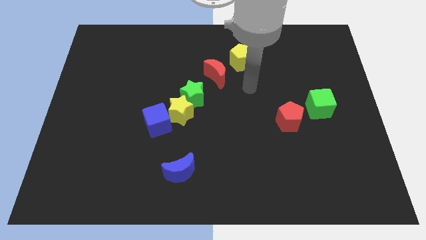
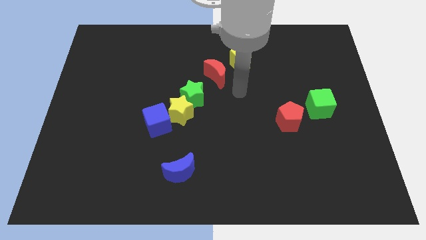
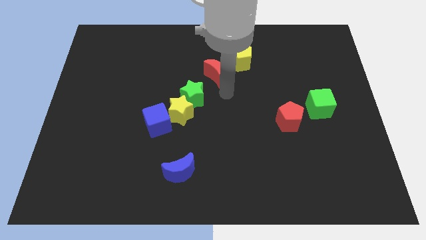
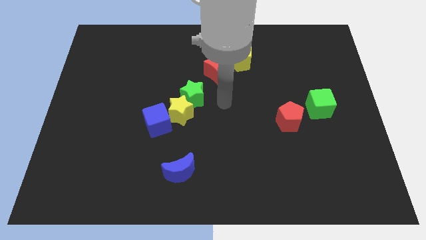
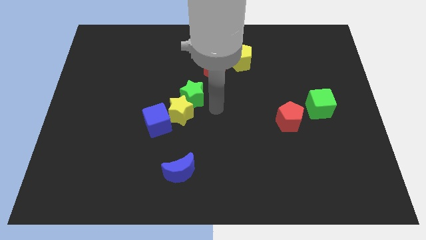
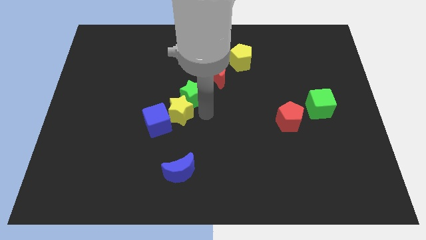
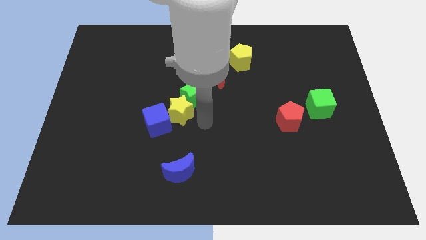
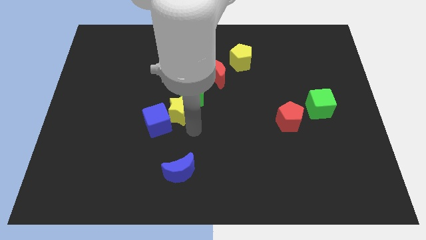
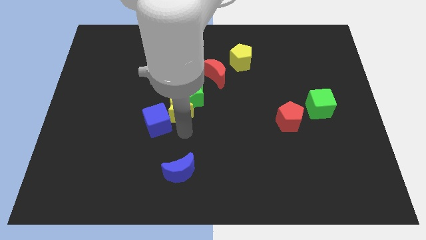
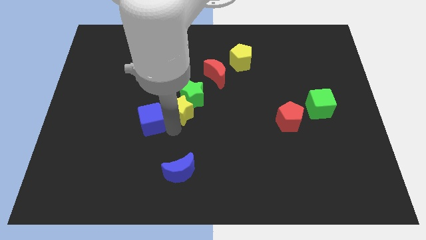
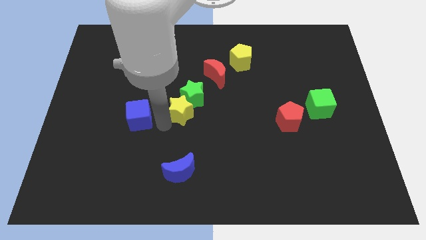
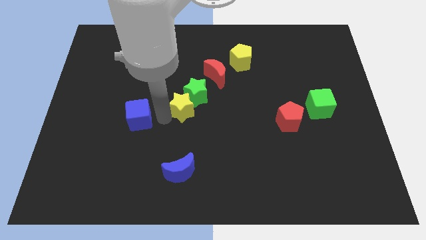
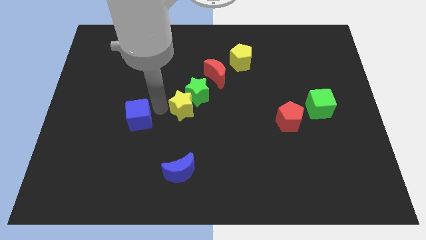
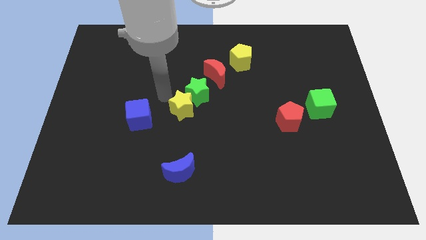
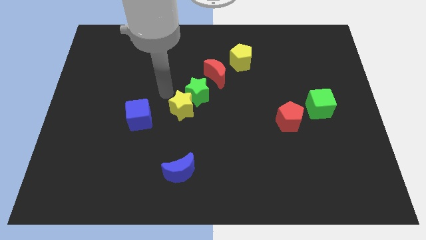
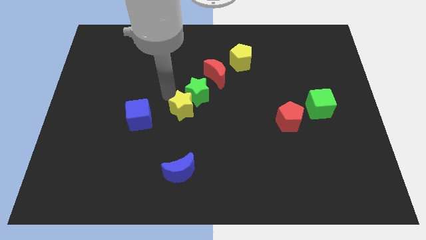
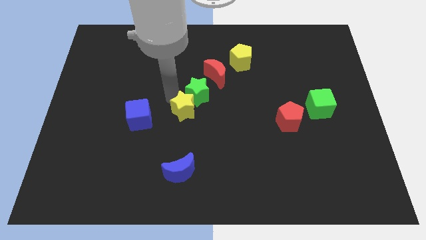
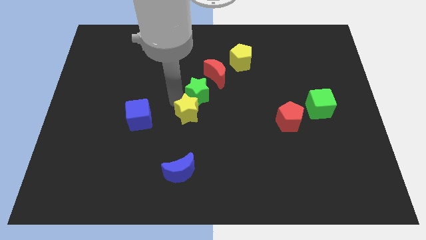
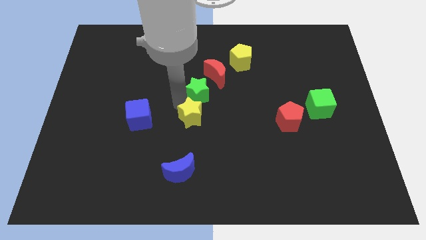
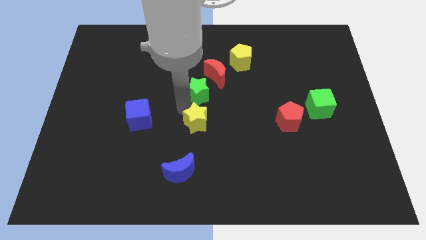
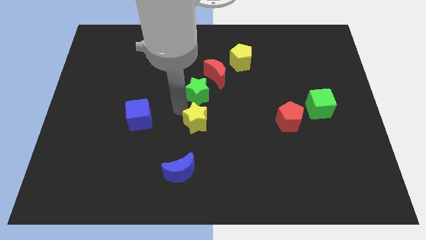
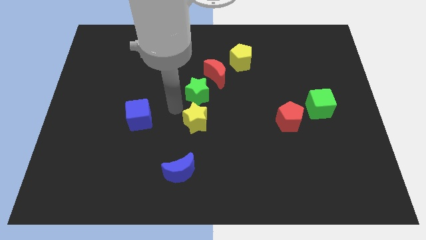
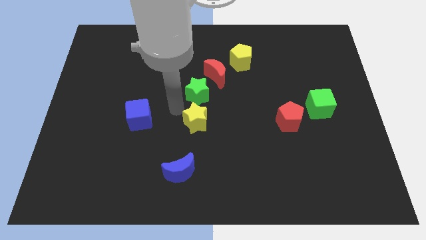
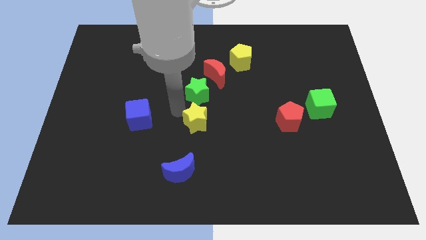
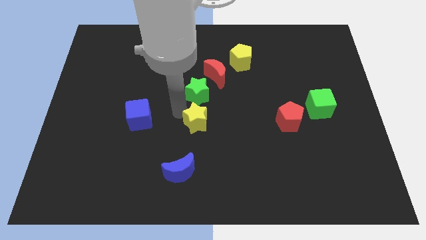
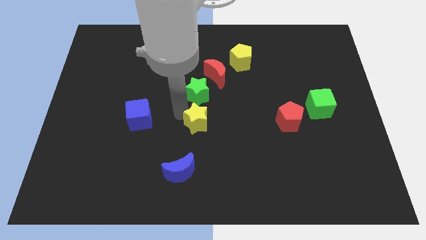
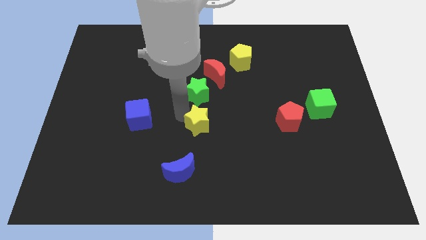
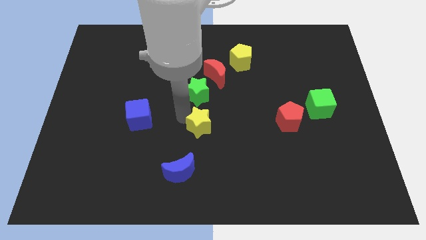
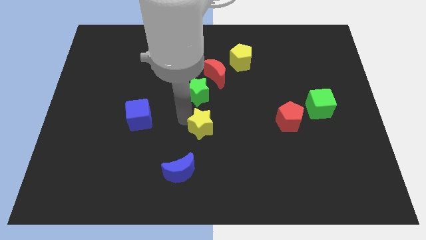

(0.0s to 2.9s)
move the yellow star away from the green star and blue cube

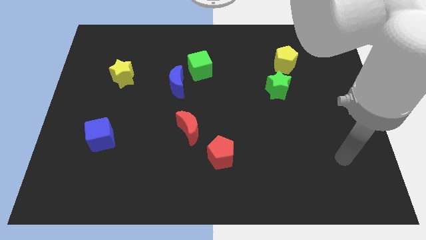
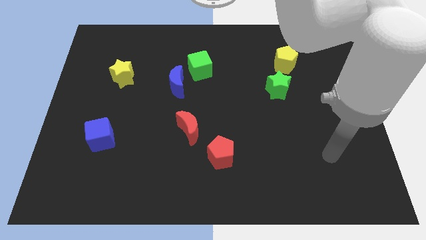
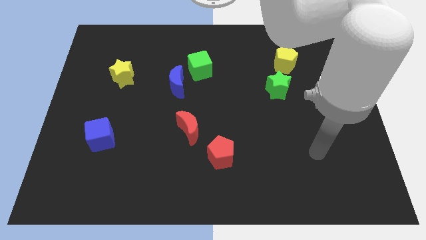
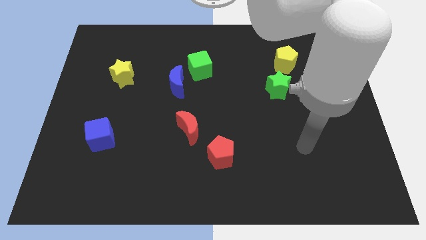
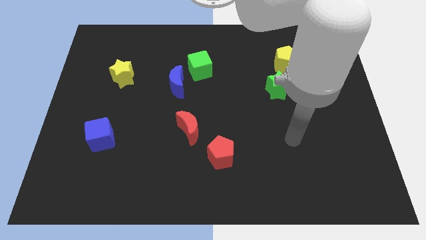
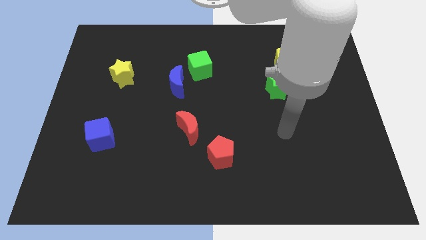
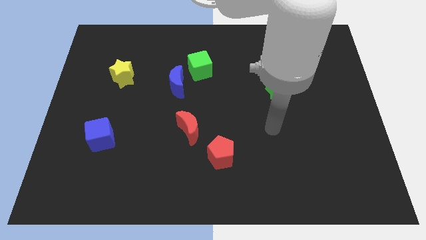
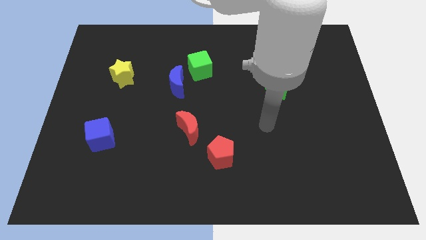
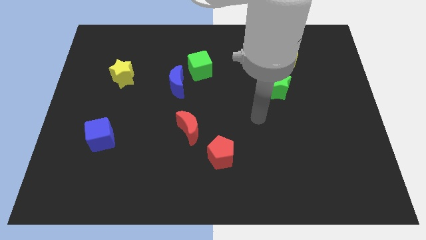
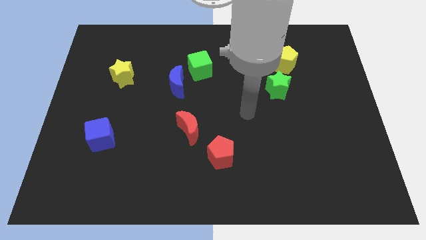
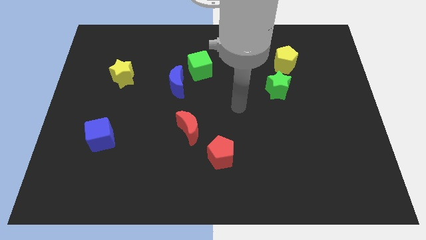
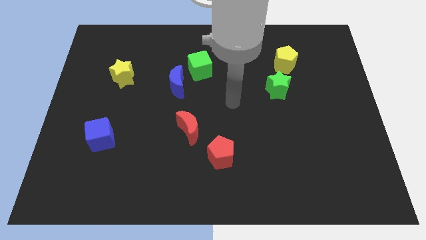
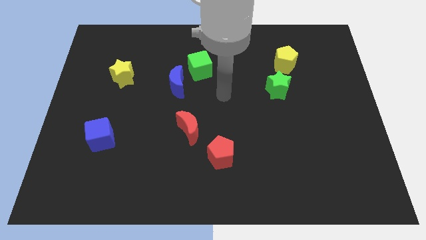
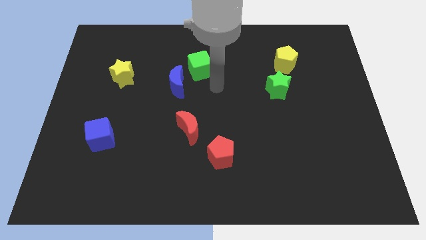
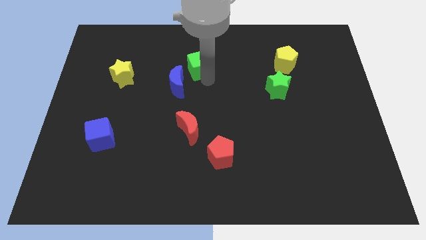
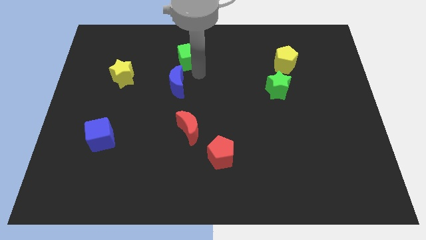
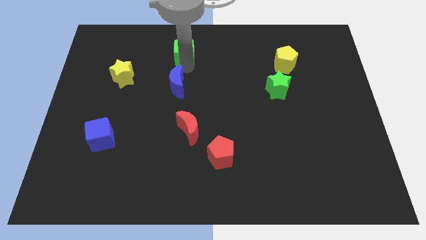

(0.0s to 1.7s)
separate the blue moon from the green cube

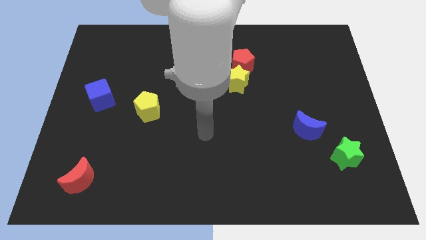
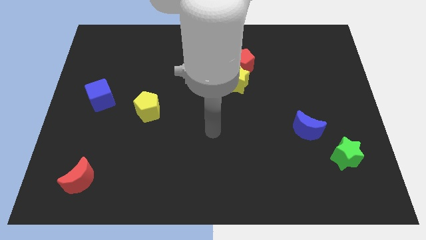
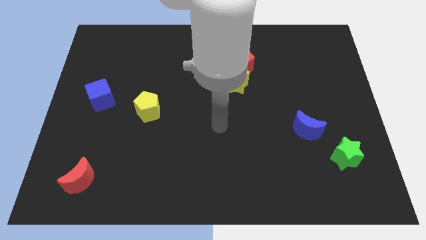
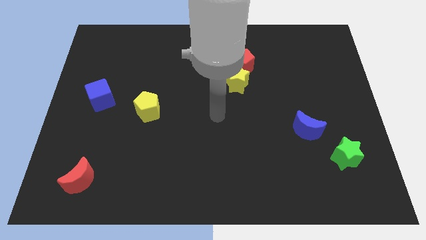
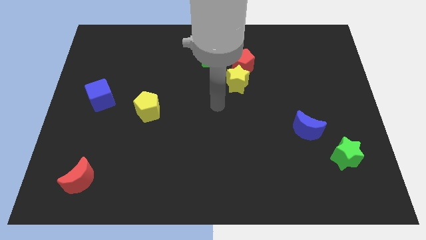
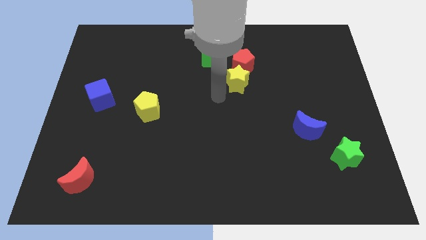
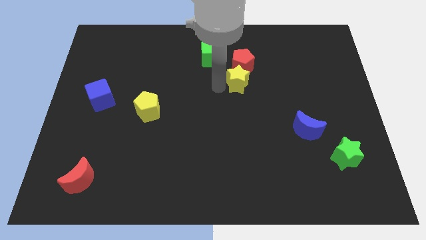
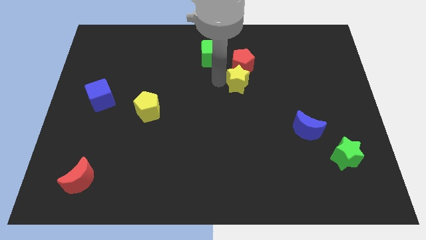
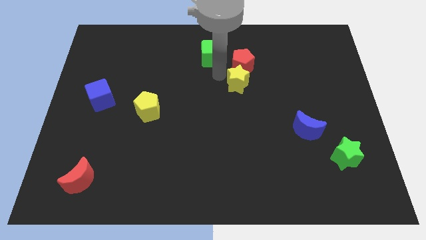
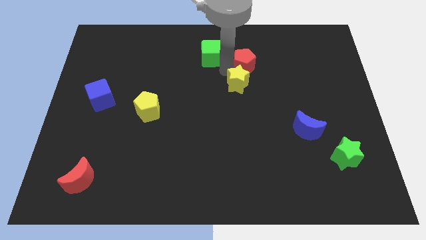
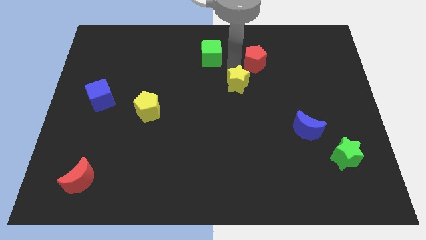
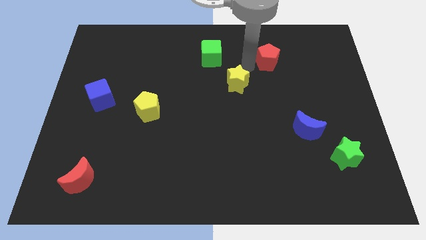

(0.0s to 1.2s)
move the yellow star away from the red pentagon

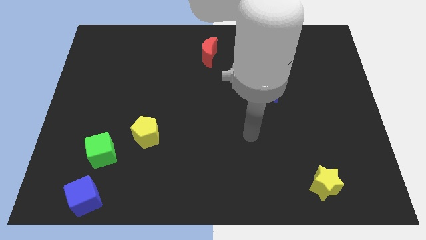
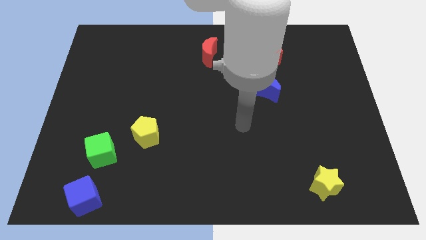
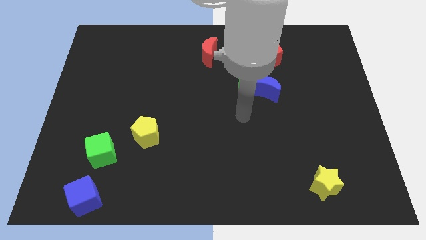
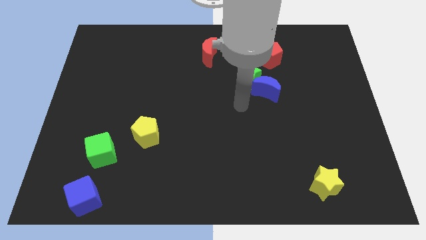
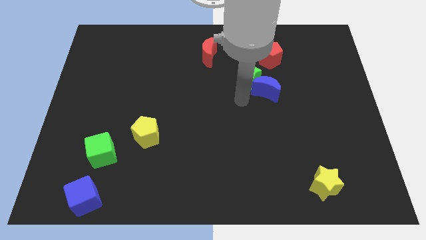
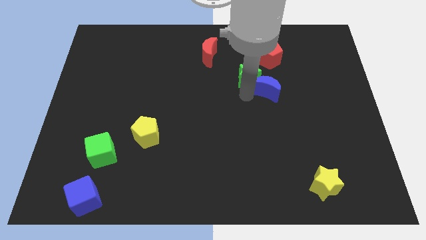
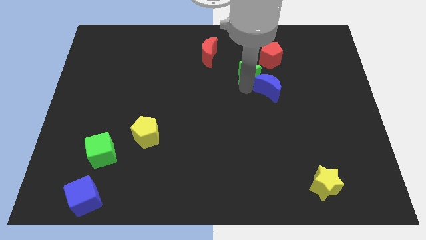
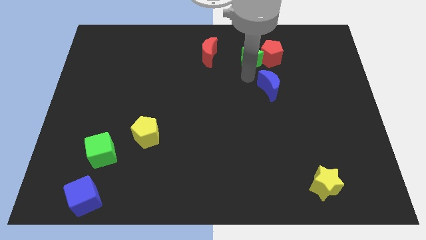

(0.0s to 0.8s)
move the blue moon away from the green star

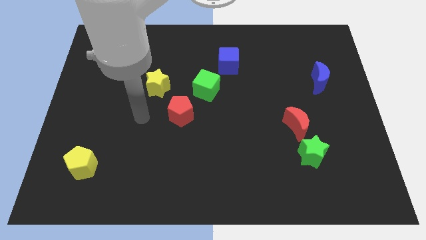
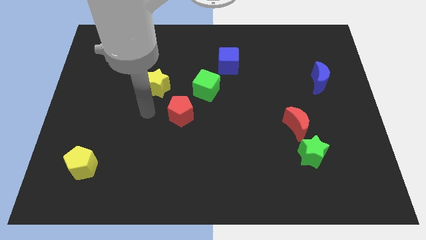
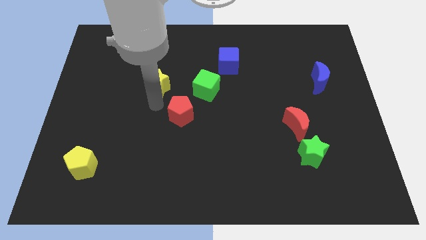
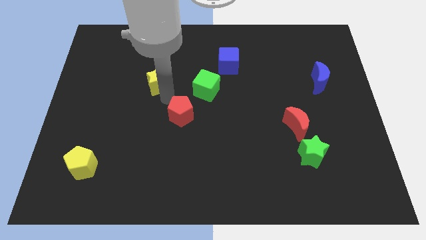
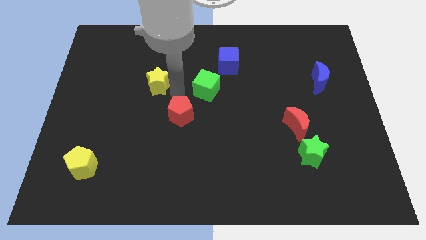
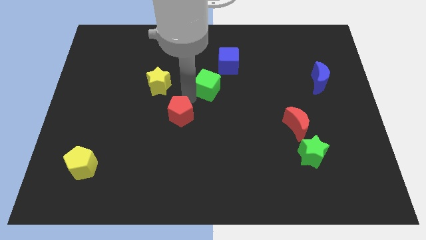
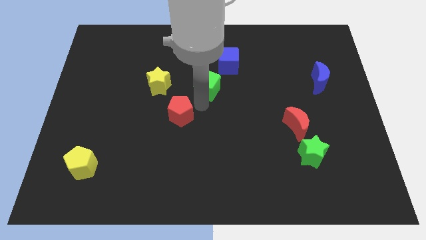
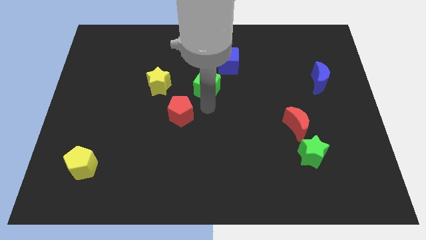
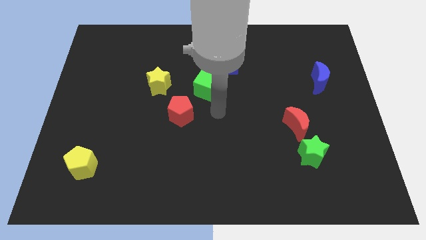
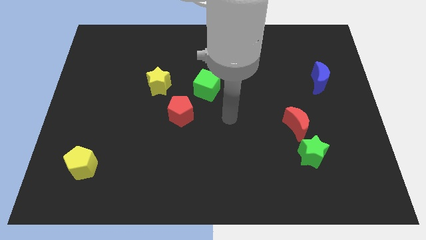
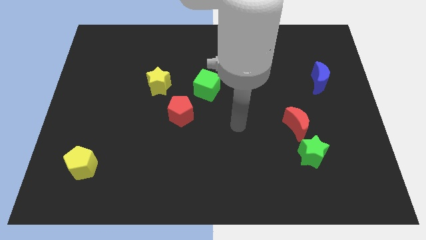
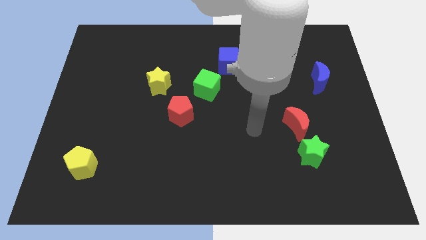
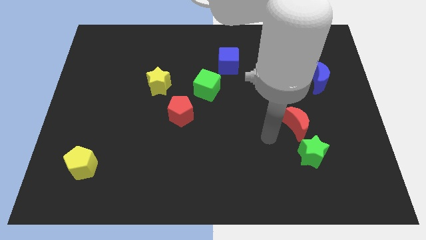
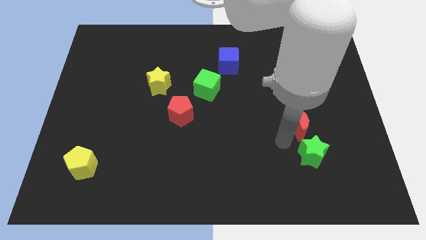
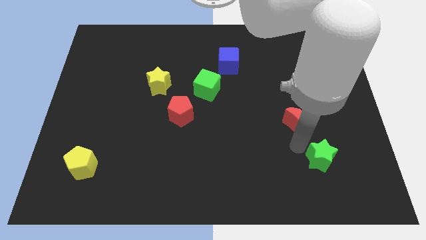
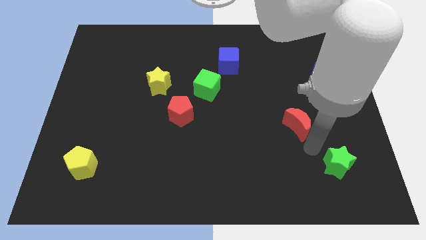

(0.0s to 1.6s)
pull the red moon apart from the green star

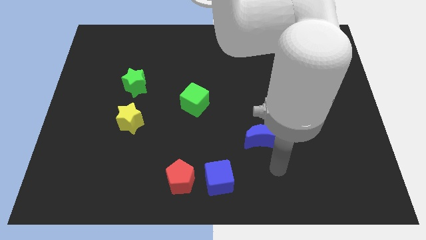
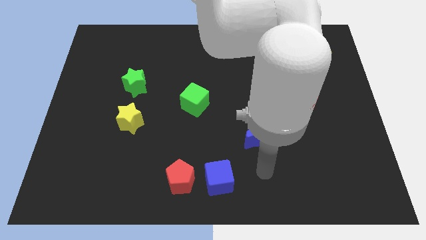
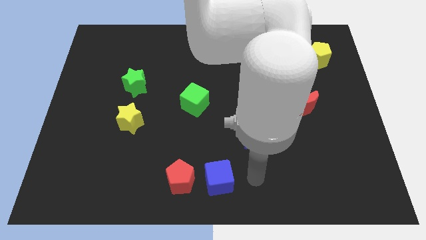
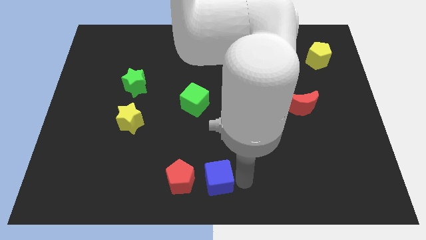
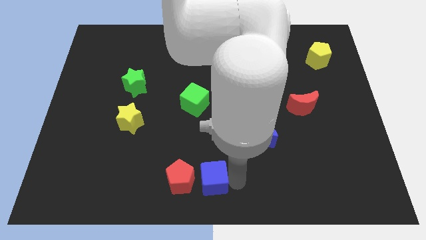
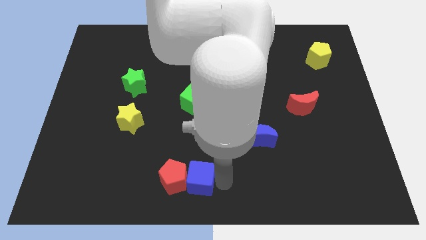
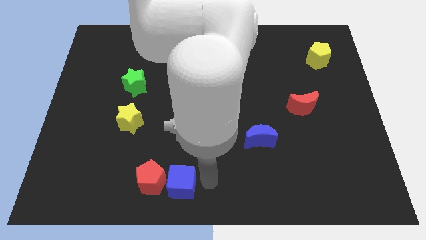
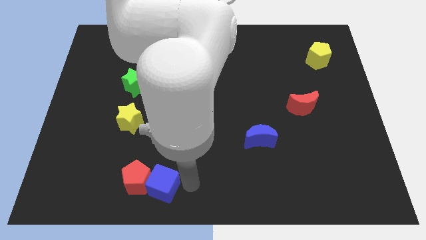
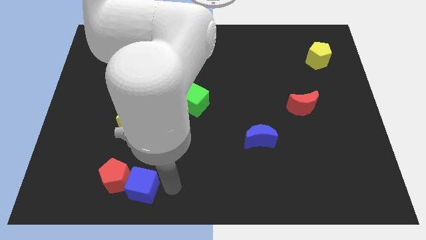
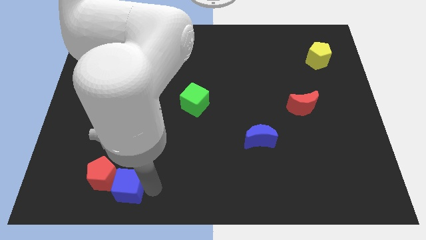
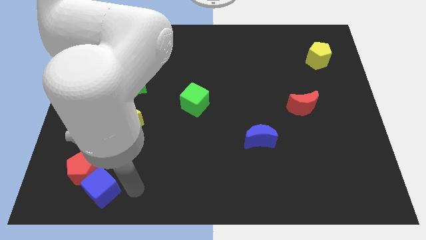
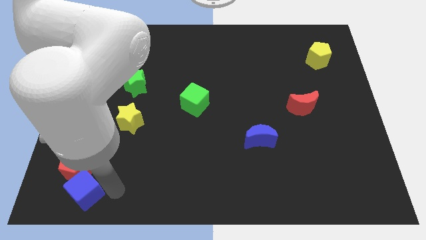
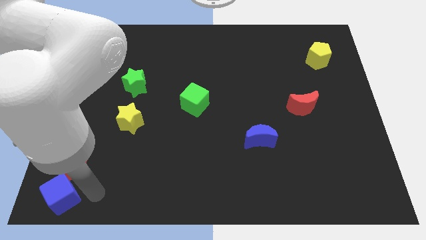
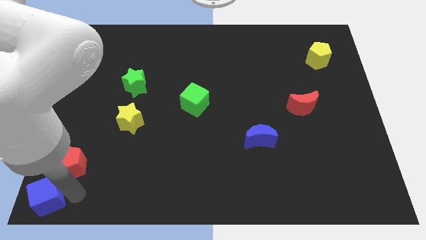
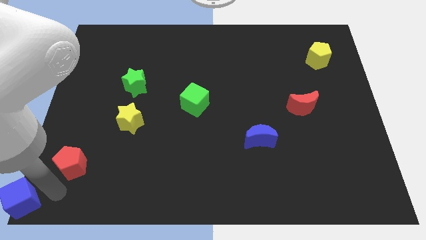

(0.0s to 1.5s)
move the red pentagon away from the blue cube
